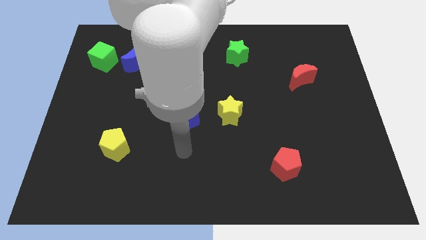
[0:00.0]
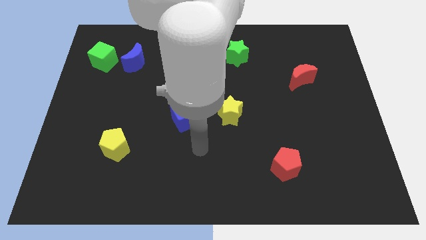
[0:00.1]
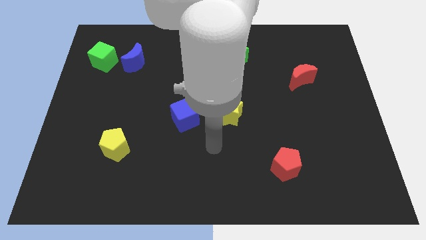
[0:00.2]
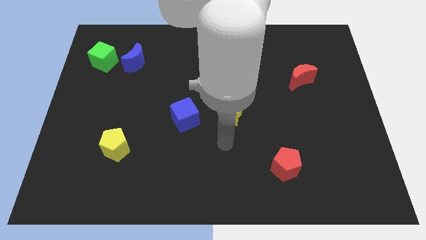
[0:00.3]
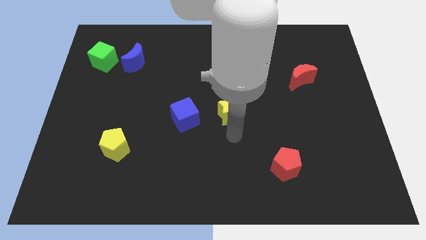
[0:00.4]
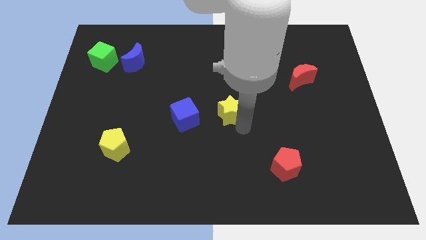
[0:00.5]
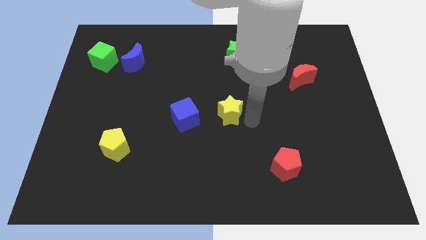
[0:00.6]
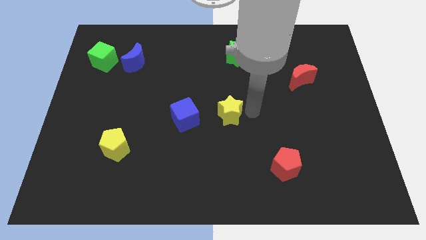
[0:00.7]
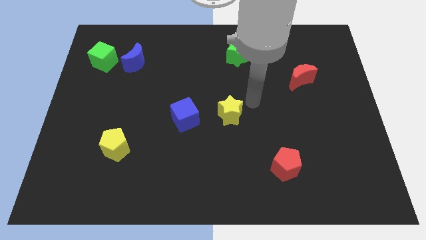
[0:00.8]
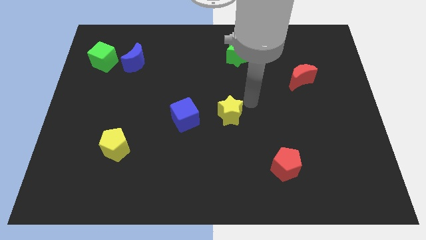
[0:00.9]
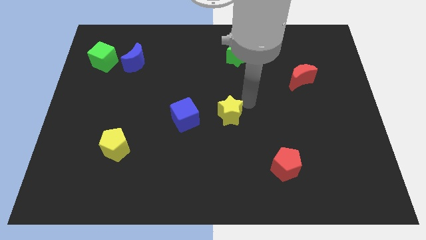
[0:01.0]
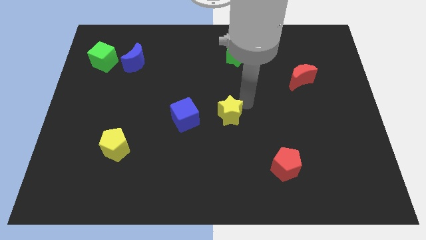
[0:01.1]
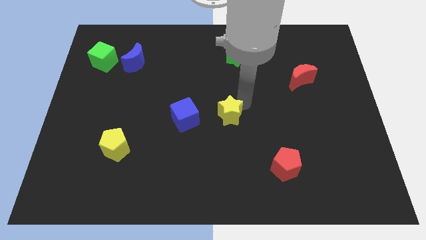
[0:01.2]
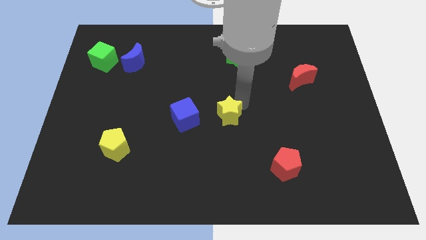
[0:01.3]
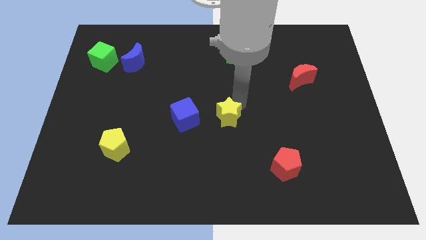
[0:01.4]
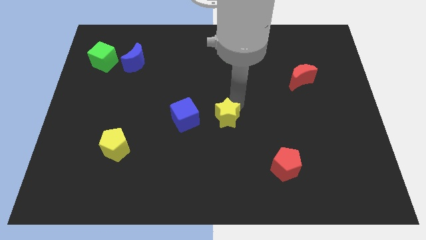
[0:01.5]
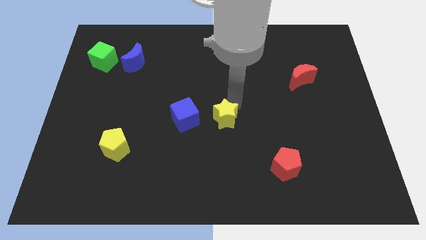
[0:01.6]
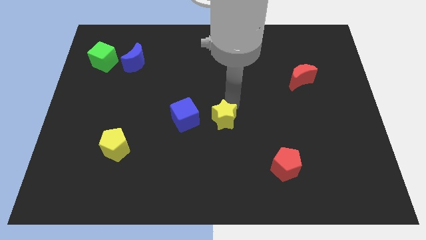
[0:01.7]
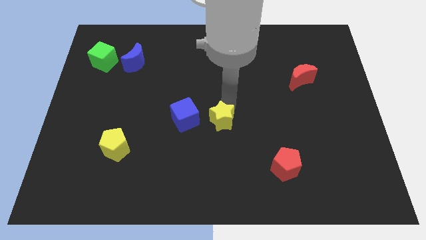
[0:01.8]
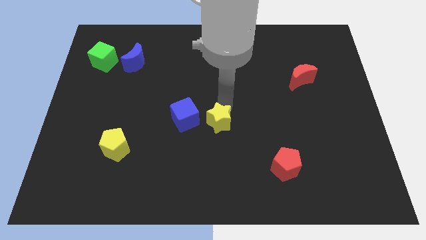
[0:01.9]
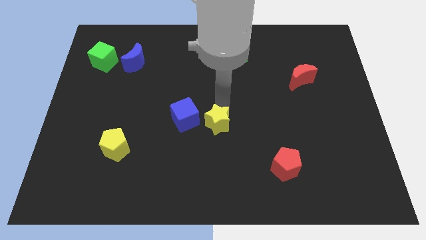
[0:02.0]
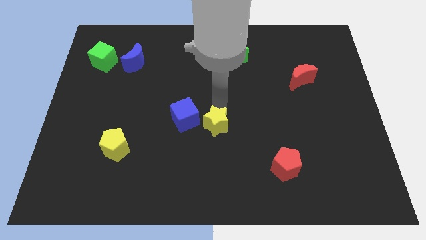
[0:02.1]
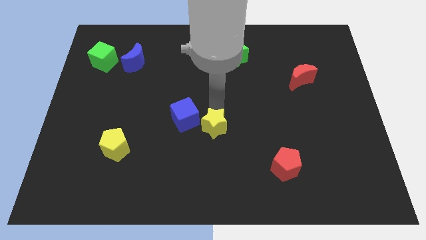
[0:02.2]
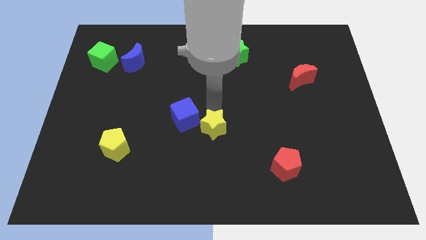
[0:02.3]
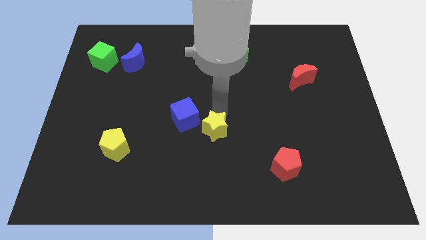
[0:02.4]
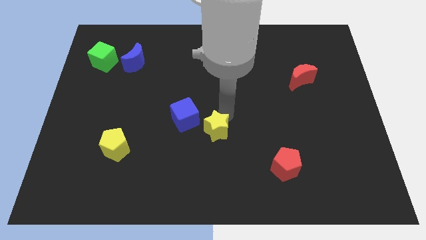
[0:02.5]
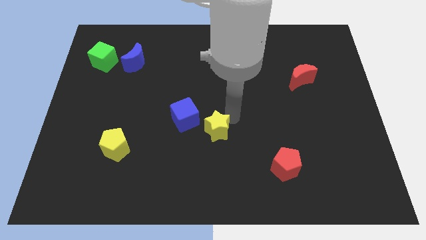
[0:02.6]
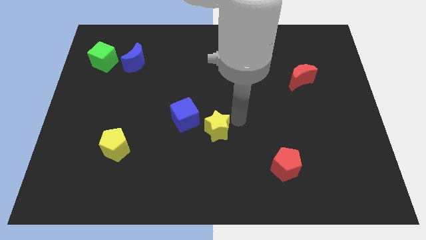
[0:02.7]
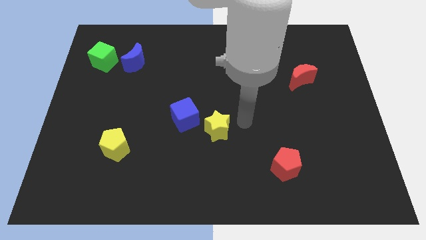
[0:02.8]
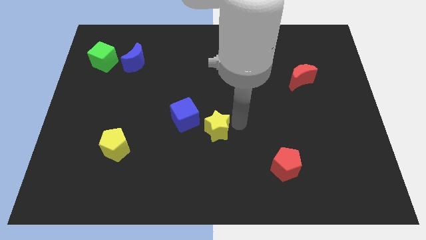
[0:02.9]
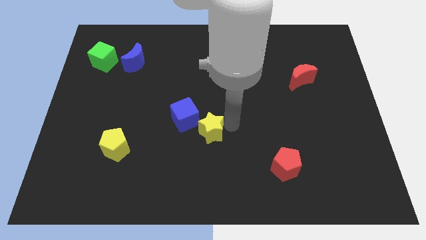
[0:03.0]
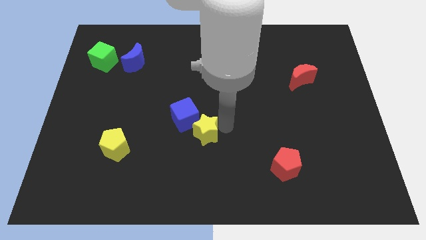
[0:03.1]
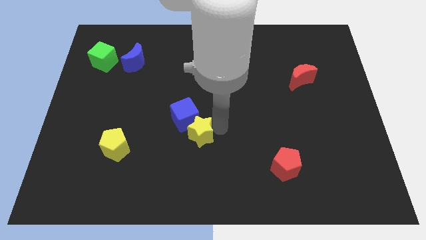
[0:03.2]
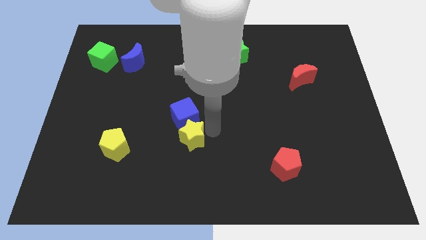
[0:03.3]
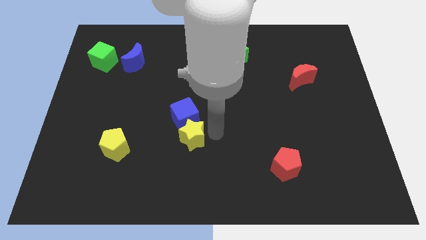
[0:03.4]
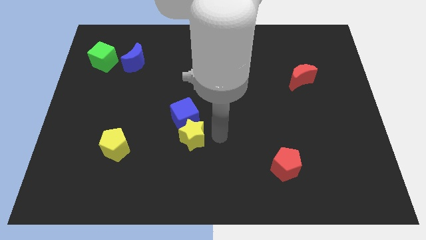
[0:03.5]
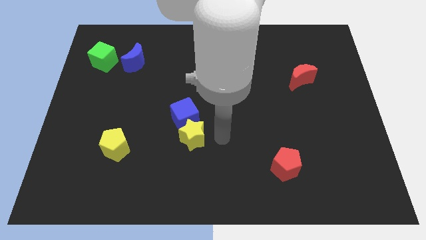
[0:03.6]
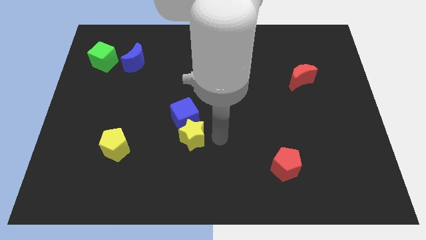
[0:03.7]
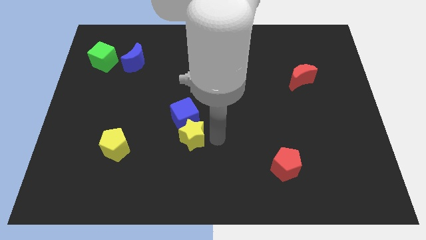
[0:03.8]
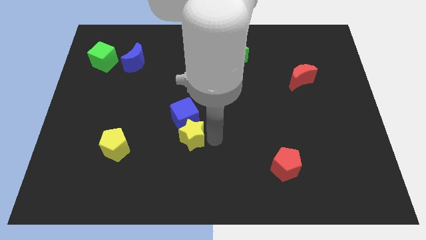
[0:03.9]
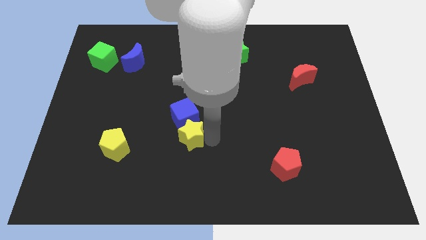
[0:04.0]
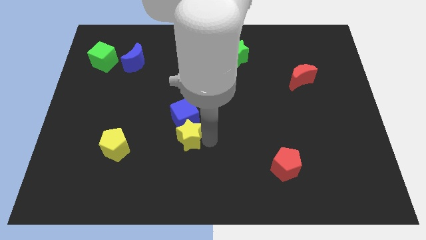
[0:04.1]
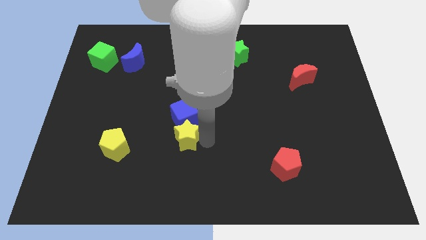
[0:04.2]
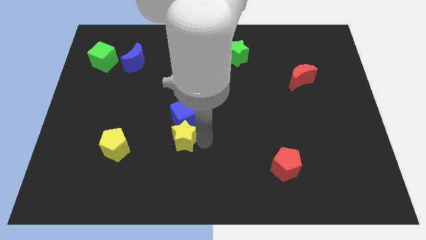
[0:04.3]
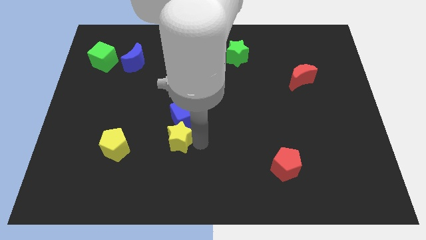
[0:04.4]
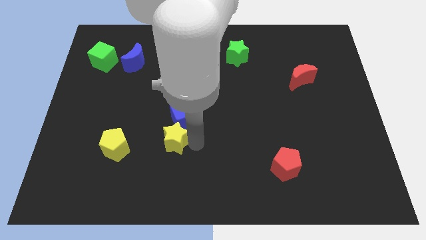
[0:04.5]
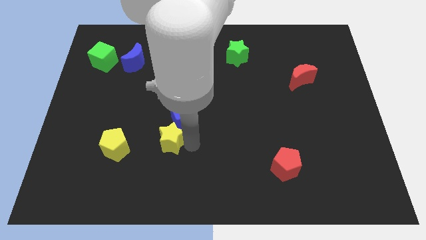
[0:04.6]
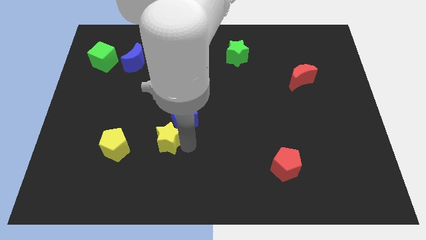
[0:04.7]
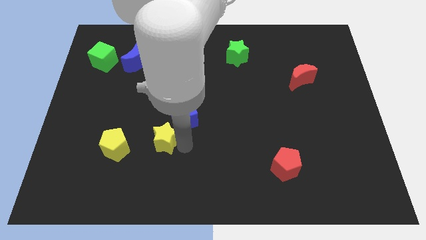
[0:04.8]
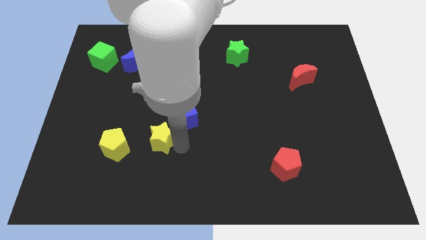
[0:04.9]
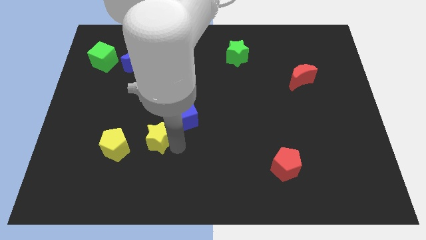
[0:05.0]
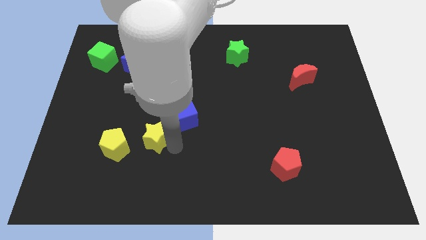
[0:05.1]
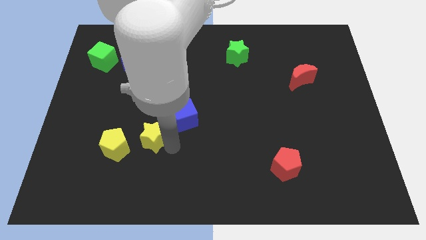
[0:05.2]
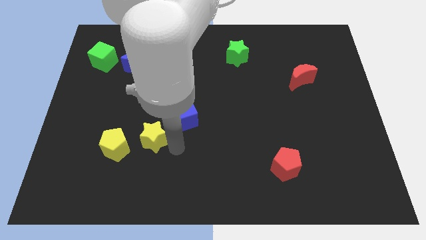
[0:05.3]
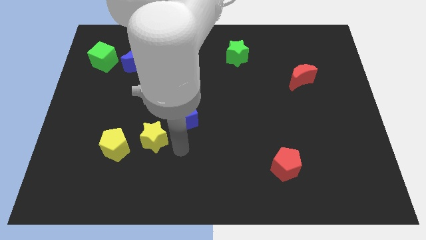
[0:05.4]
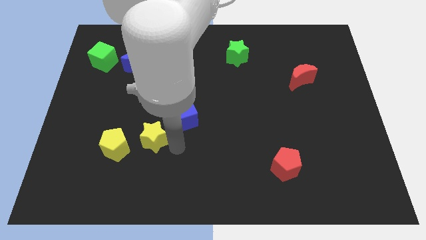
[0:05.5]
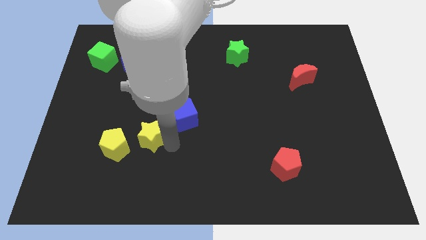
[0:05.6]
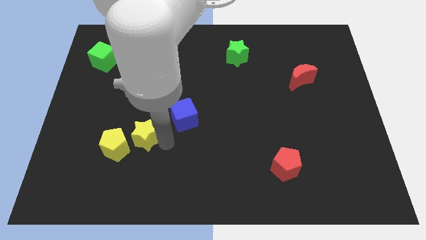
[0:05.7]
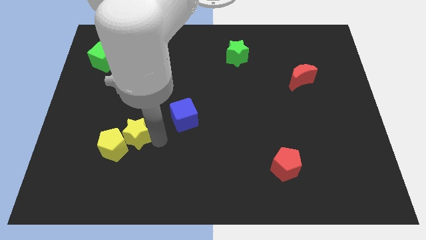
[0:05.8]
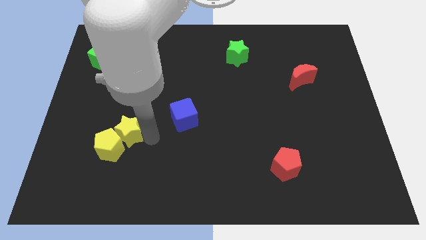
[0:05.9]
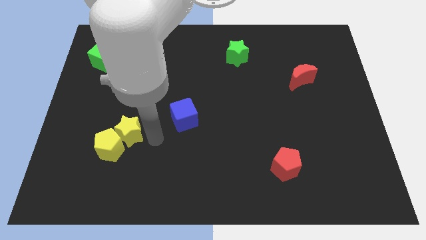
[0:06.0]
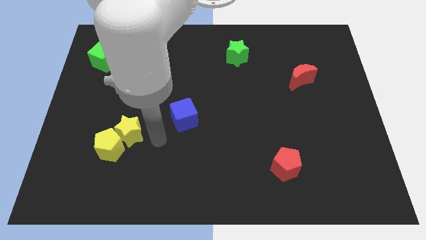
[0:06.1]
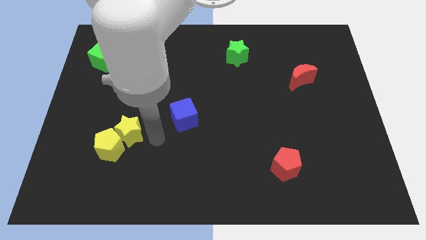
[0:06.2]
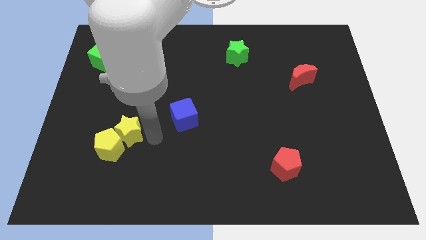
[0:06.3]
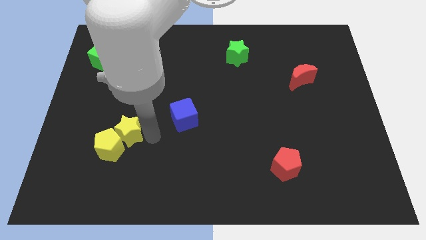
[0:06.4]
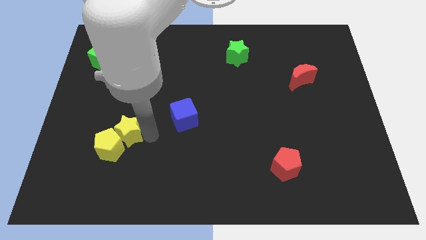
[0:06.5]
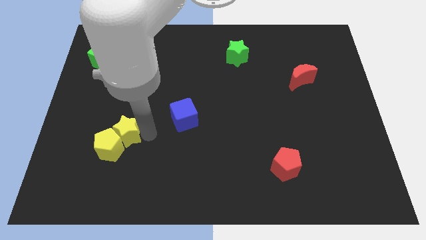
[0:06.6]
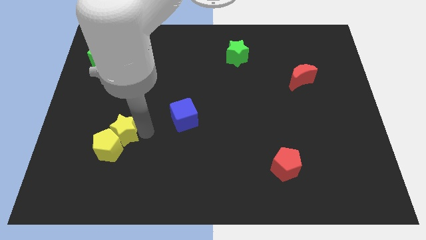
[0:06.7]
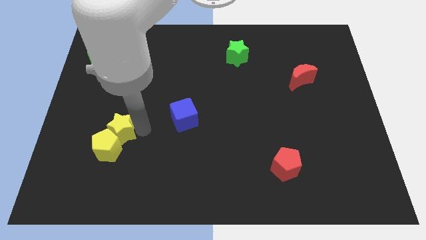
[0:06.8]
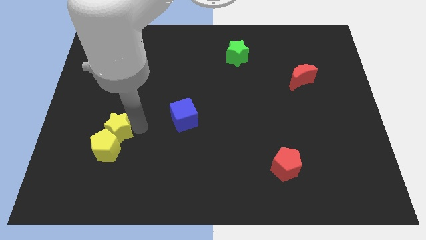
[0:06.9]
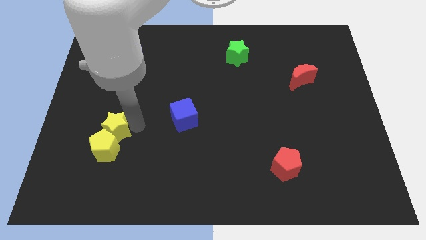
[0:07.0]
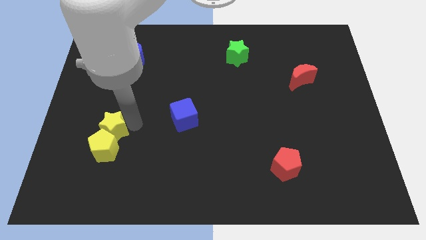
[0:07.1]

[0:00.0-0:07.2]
slide the yellow star to the top left of the yellow pentagon

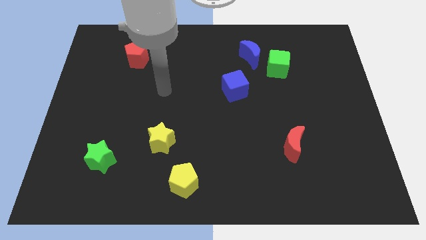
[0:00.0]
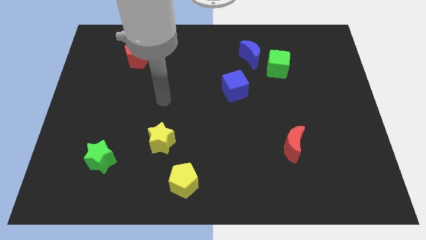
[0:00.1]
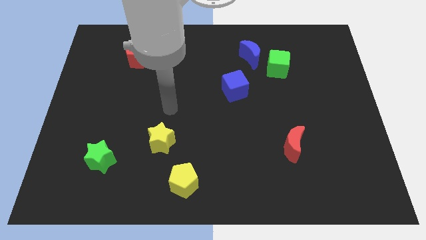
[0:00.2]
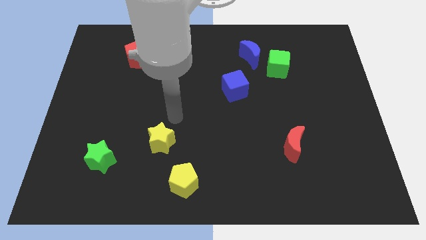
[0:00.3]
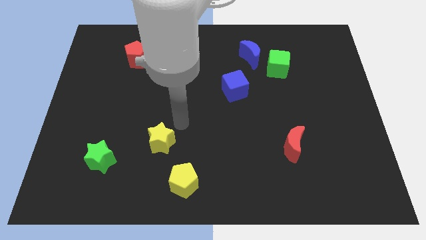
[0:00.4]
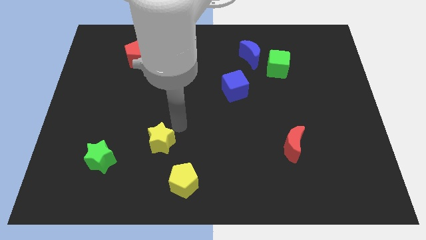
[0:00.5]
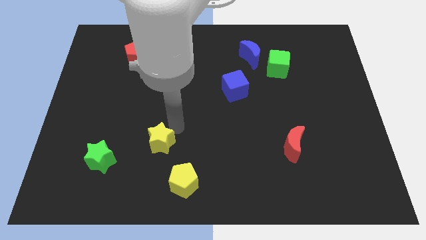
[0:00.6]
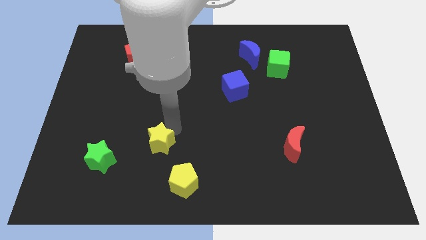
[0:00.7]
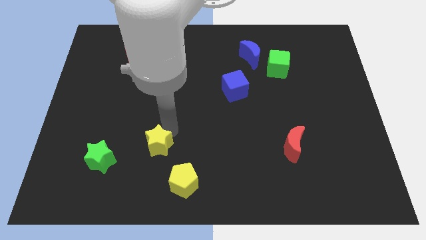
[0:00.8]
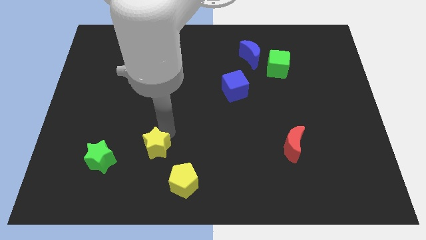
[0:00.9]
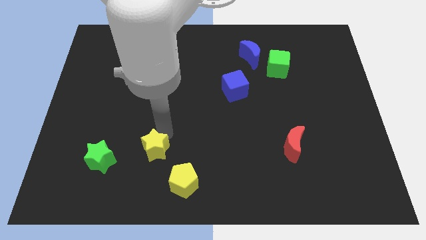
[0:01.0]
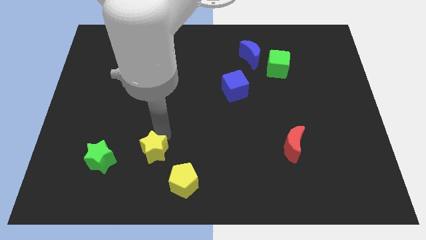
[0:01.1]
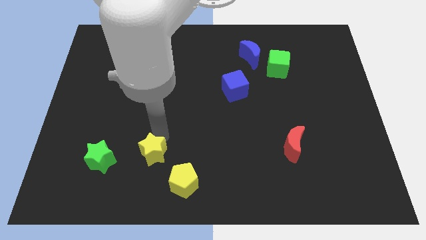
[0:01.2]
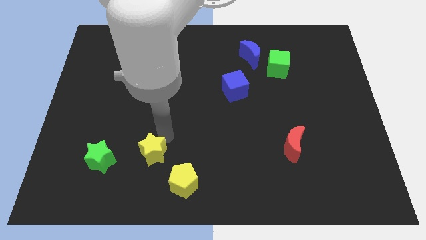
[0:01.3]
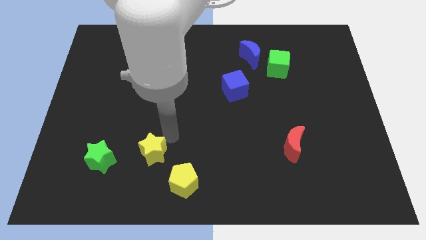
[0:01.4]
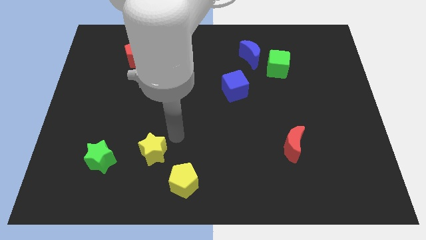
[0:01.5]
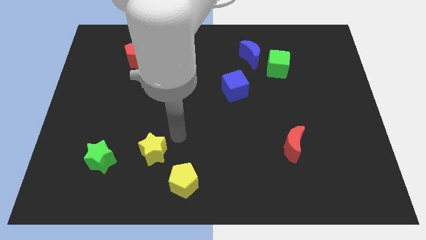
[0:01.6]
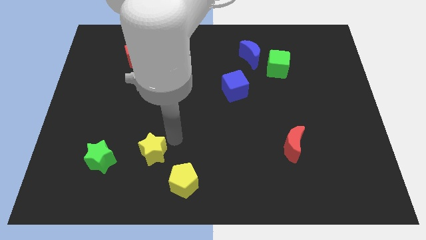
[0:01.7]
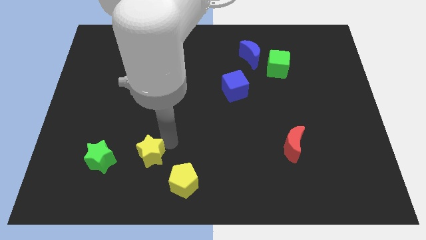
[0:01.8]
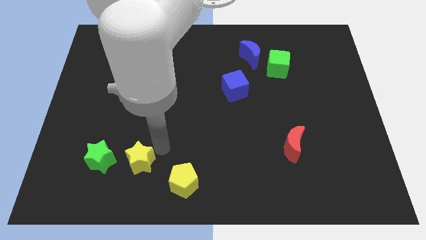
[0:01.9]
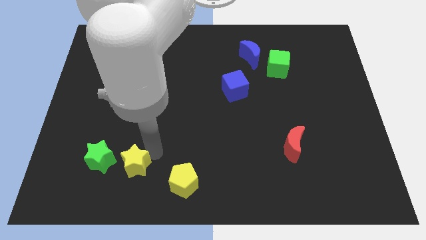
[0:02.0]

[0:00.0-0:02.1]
move the yellow star to the bottom right of the green star
